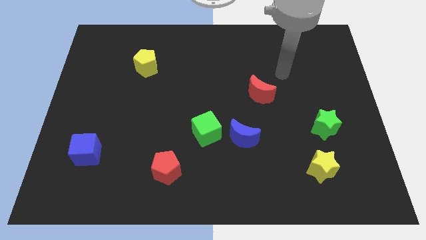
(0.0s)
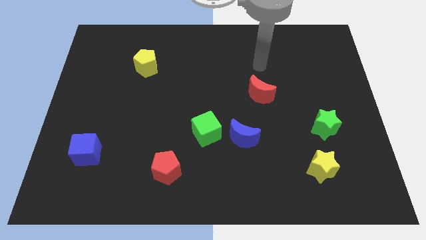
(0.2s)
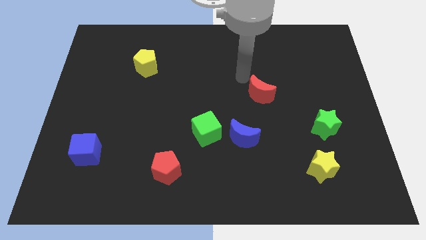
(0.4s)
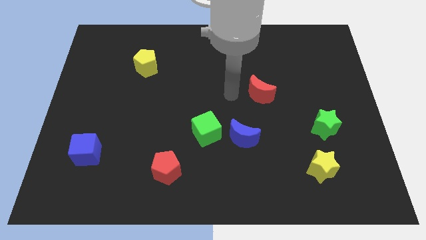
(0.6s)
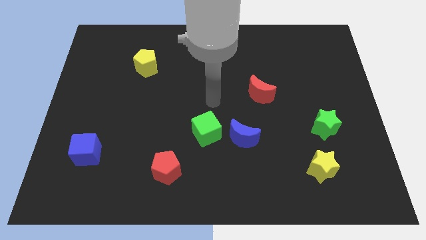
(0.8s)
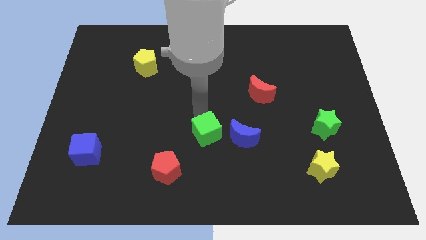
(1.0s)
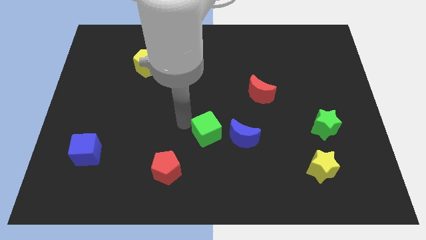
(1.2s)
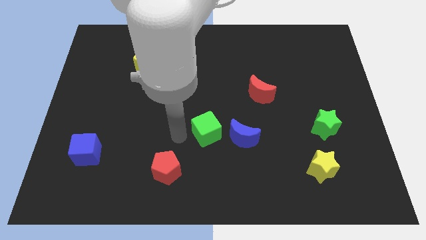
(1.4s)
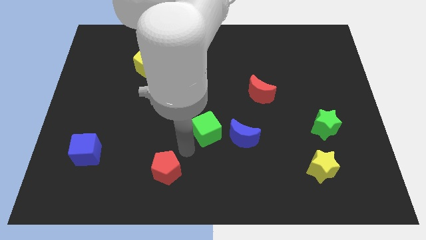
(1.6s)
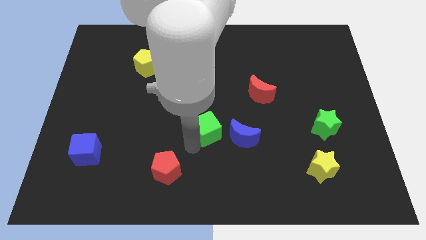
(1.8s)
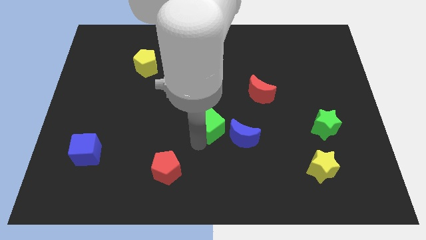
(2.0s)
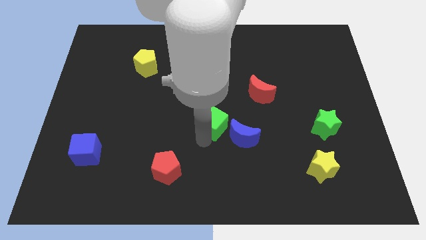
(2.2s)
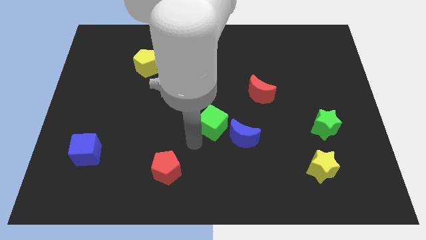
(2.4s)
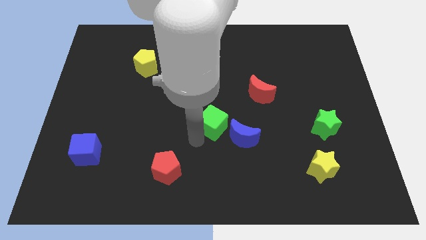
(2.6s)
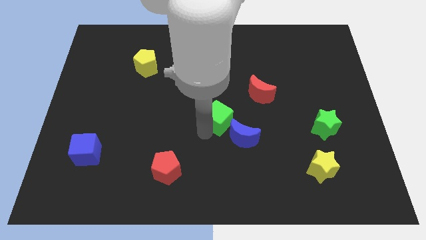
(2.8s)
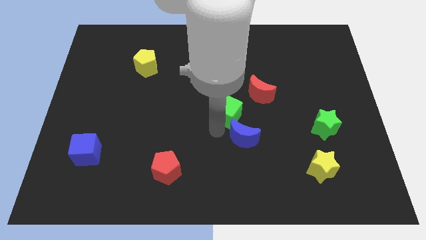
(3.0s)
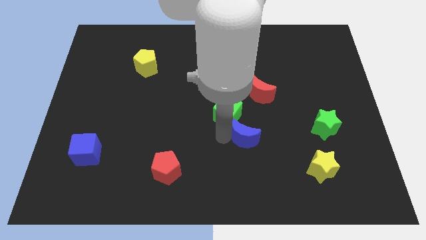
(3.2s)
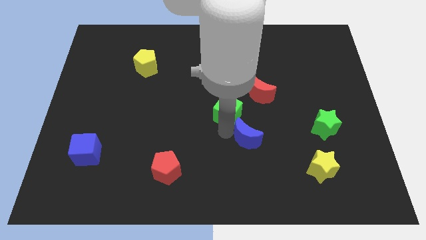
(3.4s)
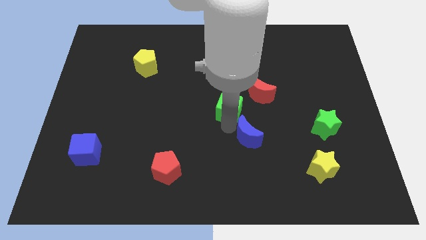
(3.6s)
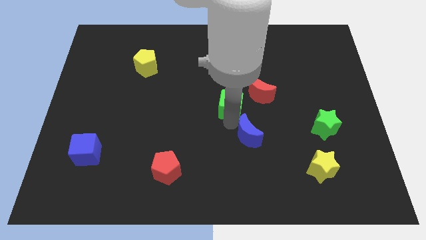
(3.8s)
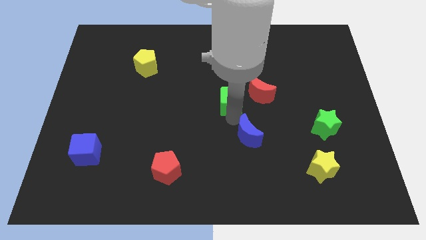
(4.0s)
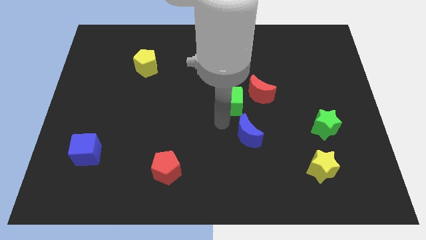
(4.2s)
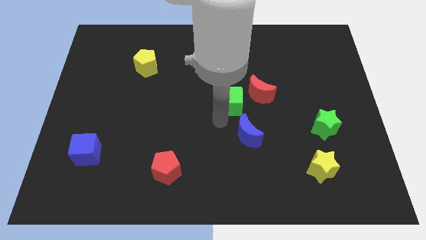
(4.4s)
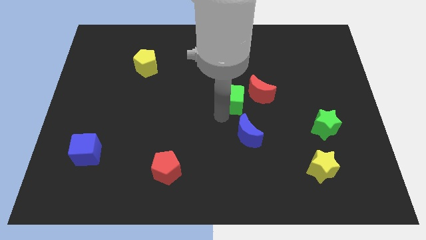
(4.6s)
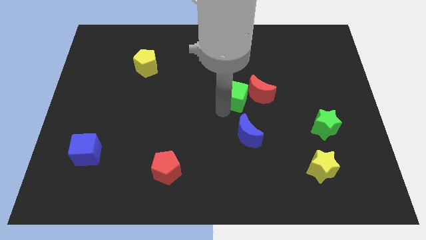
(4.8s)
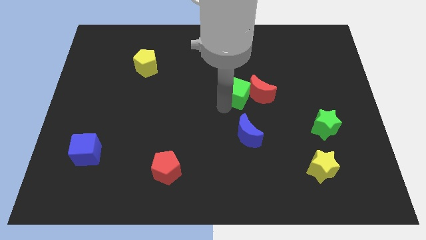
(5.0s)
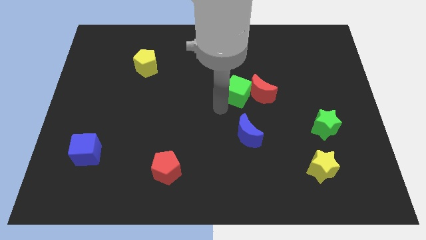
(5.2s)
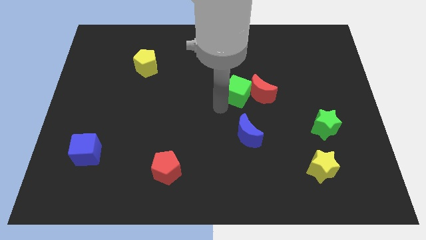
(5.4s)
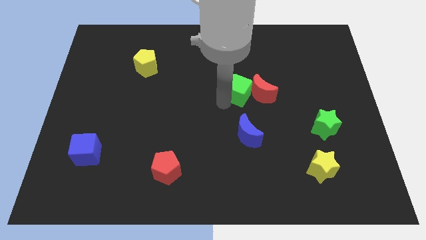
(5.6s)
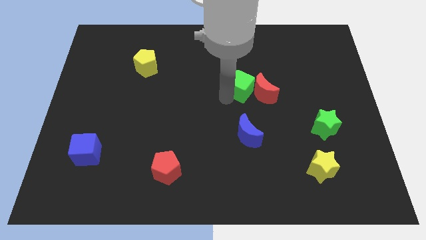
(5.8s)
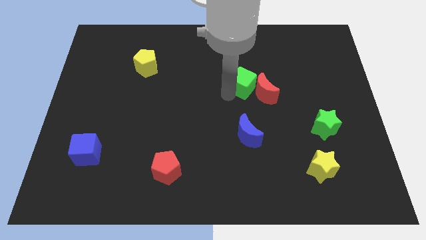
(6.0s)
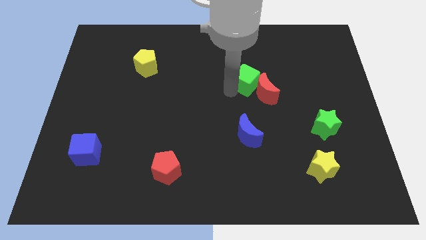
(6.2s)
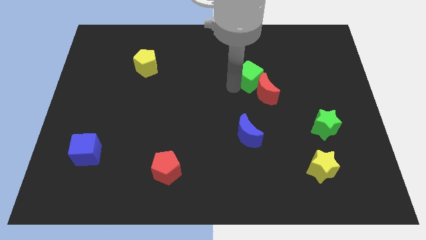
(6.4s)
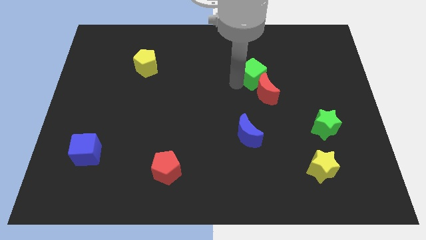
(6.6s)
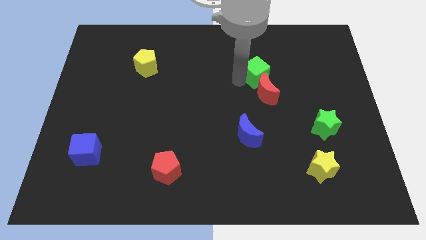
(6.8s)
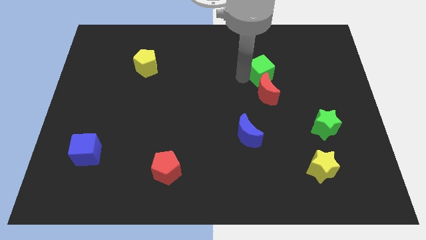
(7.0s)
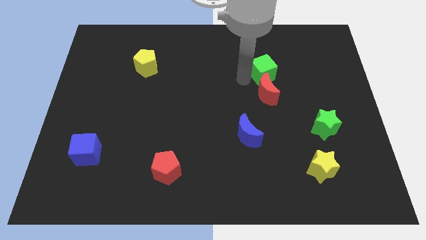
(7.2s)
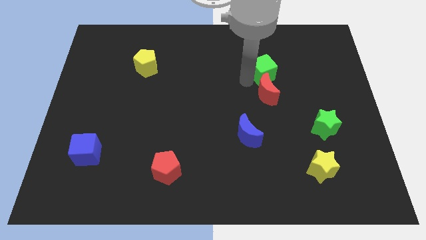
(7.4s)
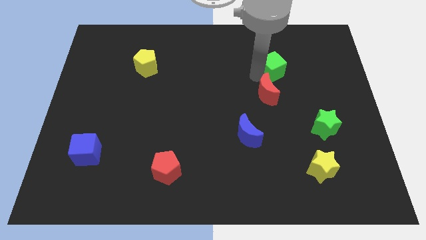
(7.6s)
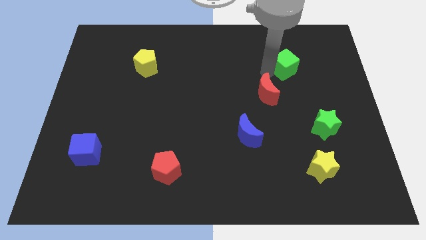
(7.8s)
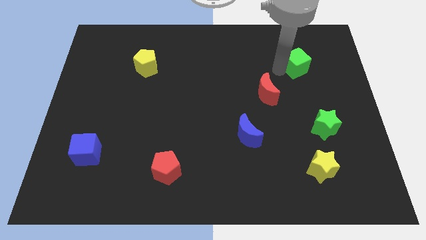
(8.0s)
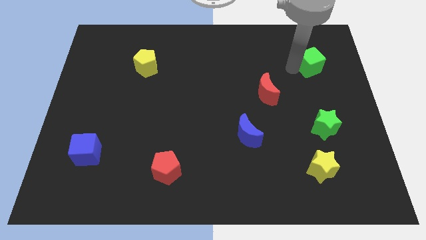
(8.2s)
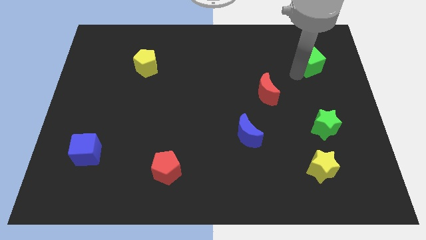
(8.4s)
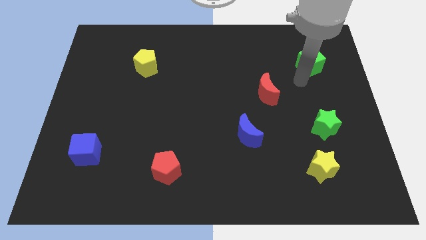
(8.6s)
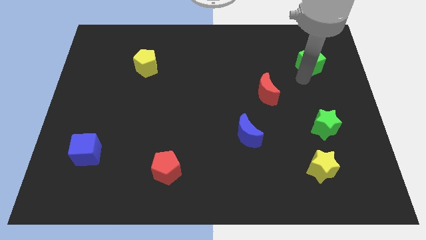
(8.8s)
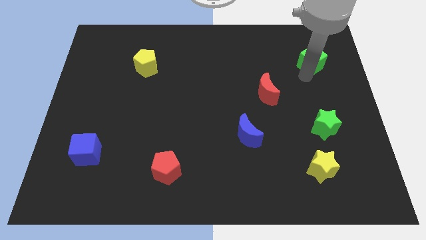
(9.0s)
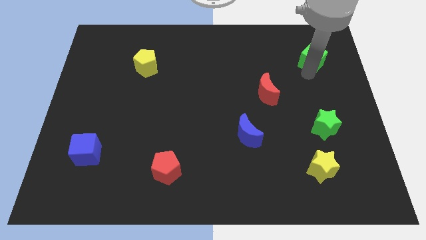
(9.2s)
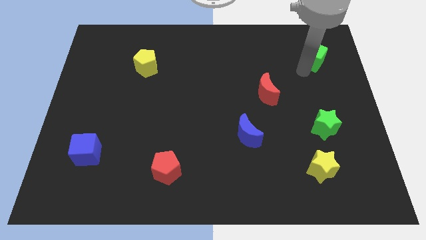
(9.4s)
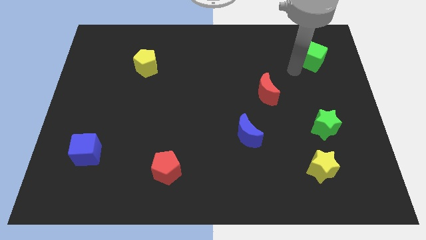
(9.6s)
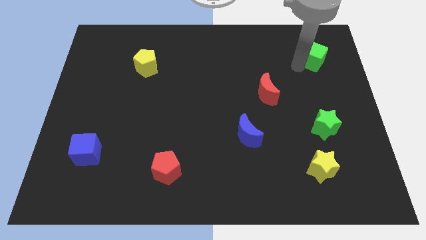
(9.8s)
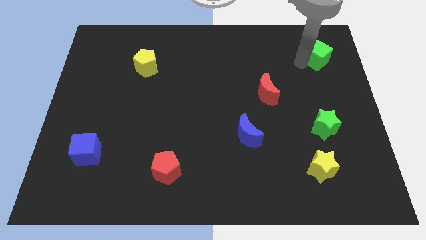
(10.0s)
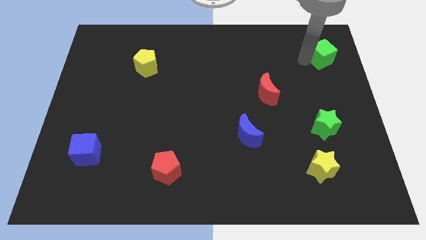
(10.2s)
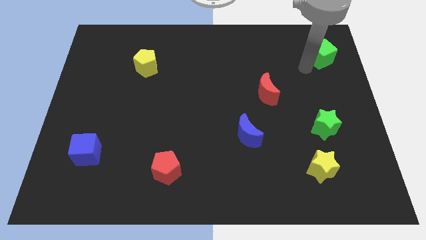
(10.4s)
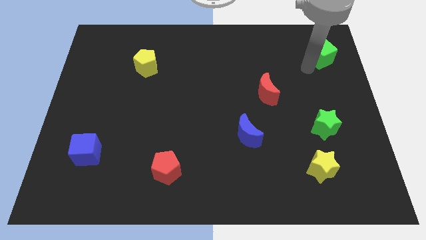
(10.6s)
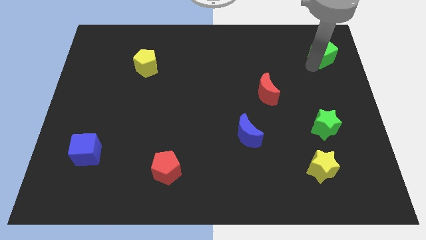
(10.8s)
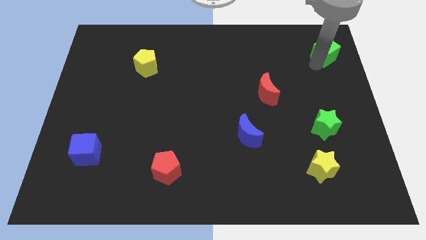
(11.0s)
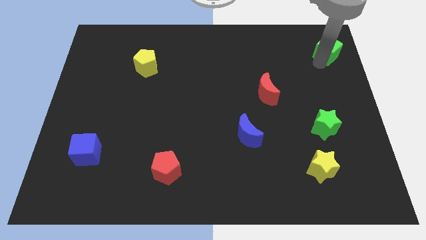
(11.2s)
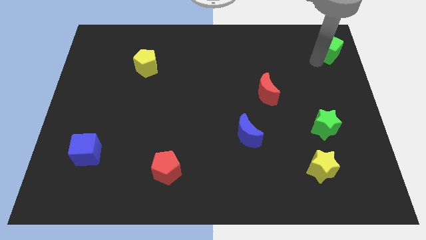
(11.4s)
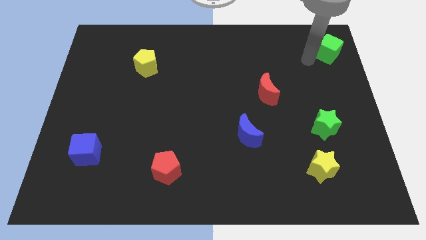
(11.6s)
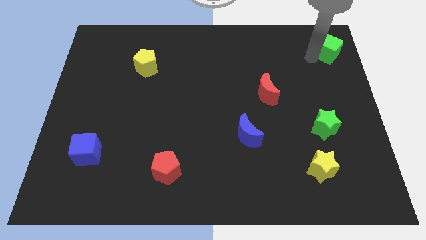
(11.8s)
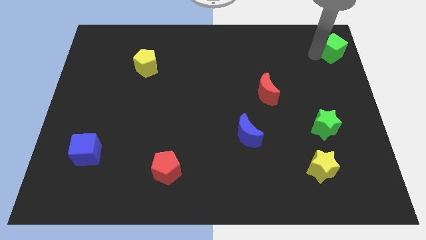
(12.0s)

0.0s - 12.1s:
push the green cube to the top right

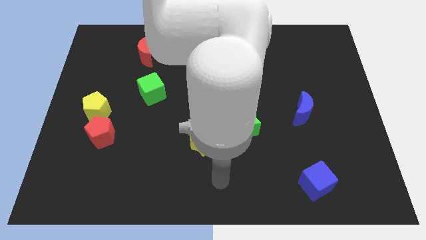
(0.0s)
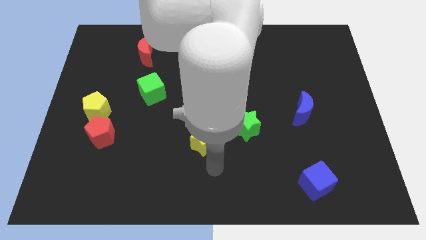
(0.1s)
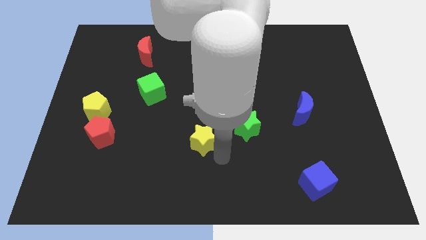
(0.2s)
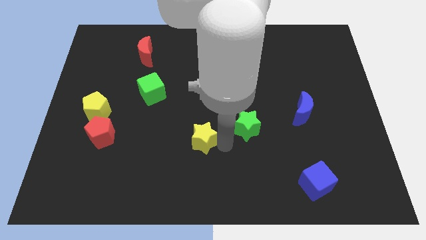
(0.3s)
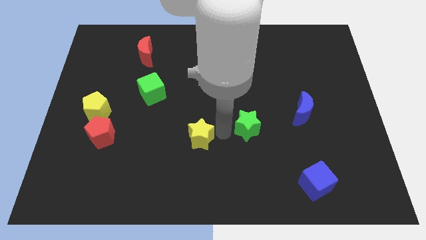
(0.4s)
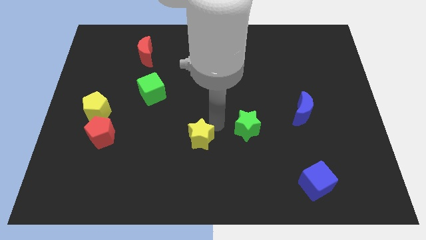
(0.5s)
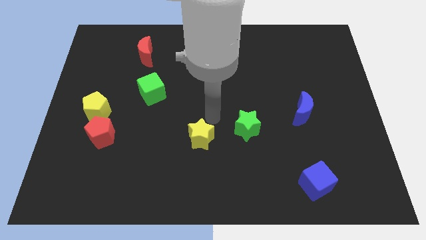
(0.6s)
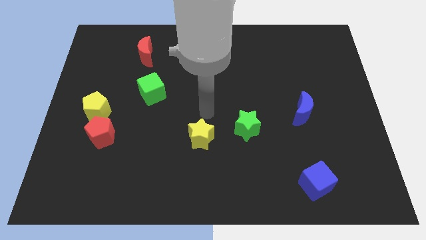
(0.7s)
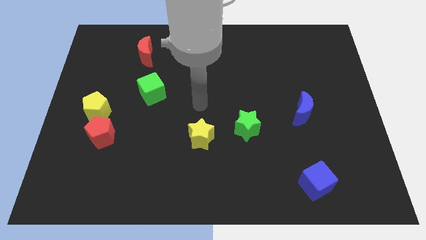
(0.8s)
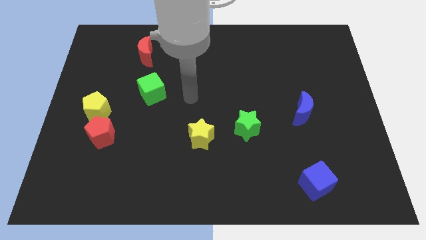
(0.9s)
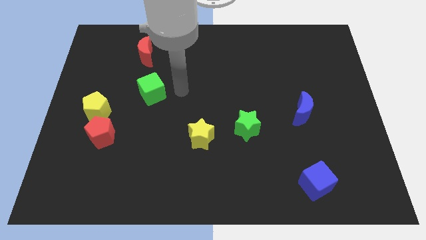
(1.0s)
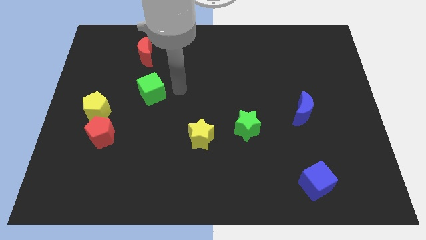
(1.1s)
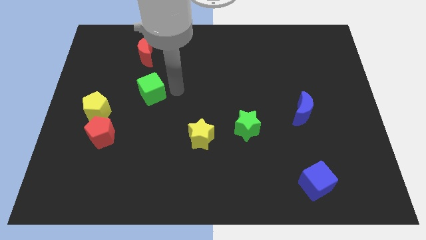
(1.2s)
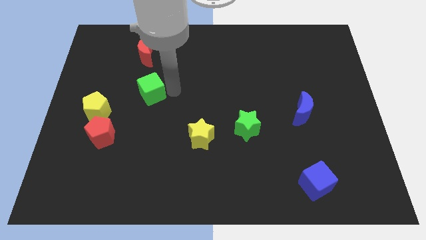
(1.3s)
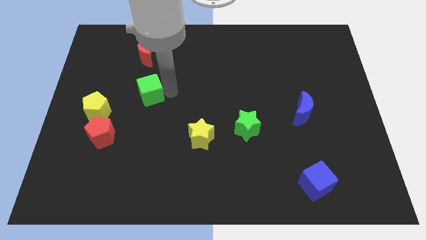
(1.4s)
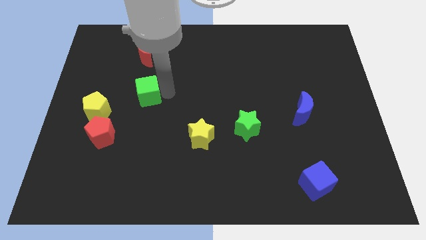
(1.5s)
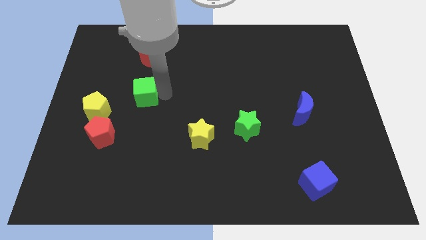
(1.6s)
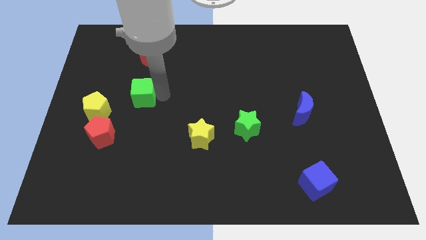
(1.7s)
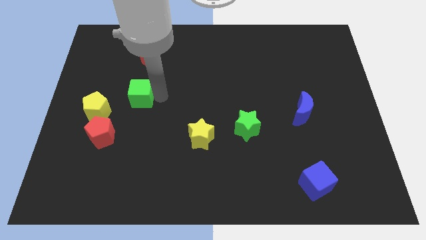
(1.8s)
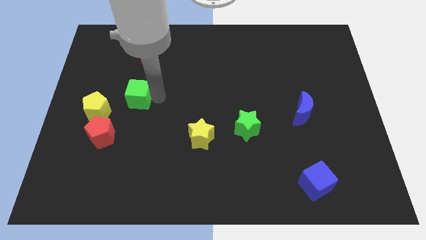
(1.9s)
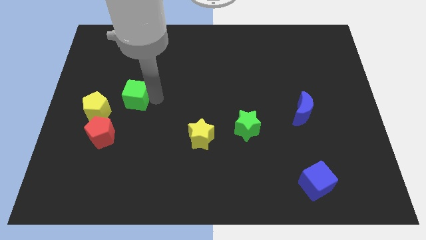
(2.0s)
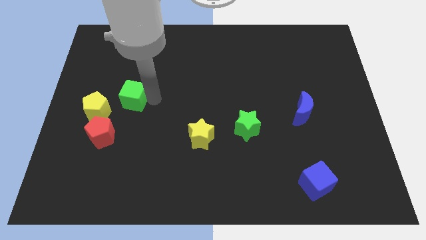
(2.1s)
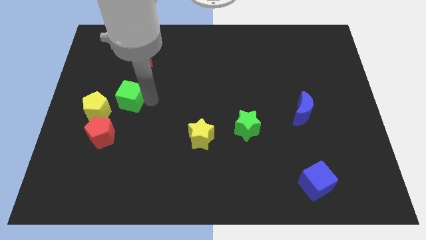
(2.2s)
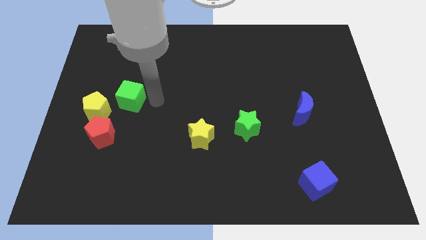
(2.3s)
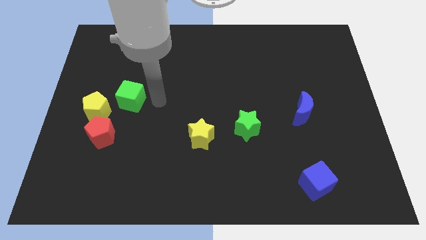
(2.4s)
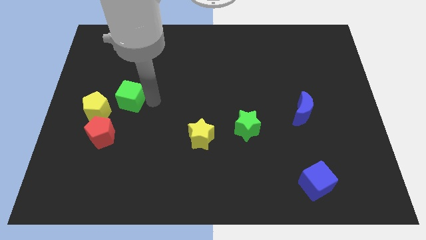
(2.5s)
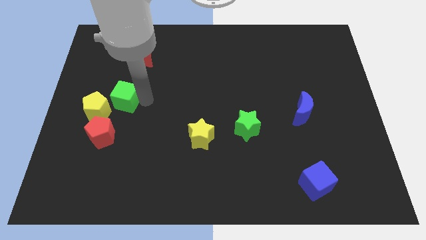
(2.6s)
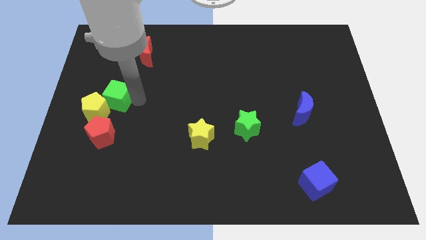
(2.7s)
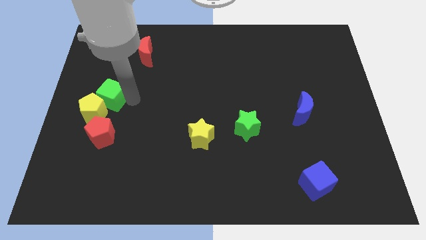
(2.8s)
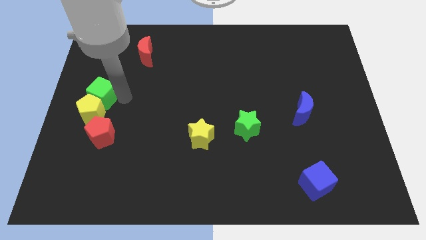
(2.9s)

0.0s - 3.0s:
slide the green cube to the left side of the board
